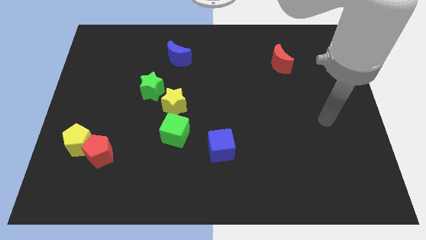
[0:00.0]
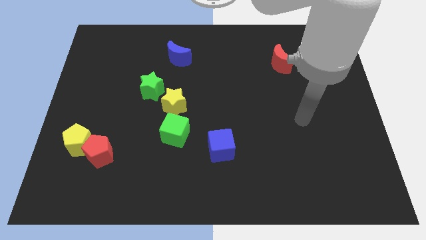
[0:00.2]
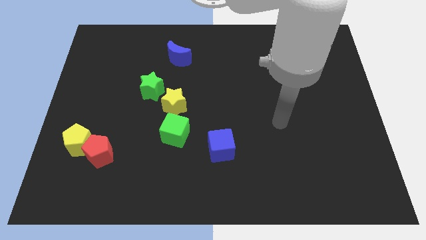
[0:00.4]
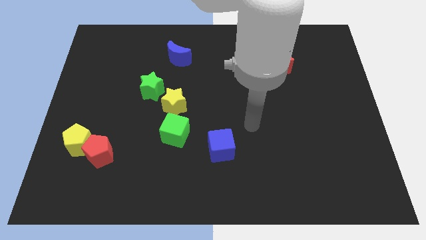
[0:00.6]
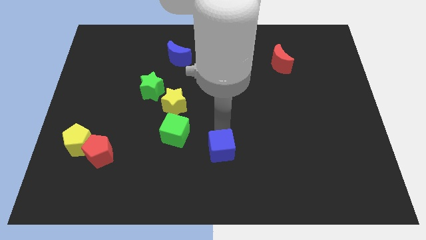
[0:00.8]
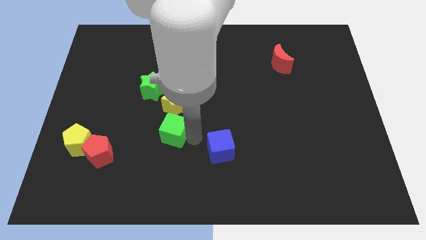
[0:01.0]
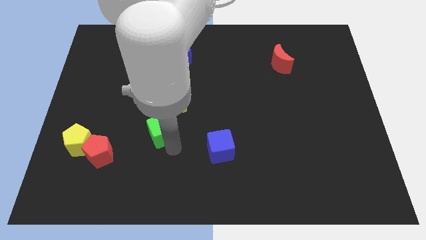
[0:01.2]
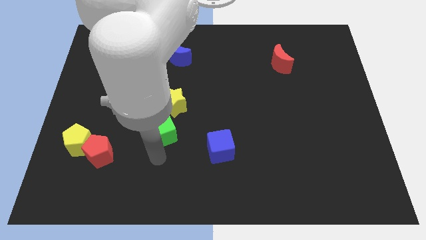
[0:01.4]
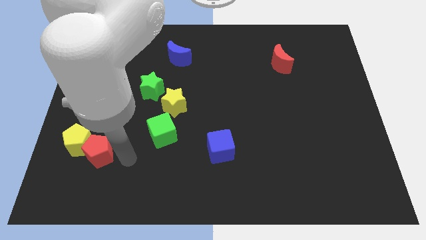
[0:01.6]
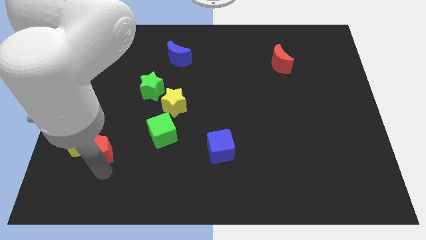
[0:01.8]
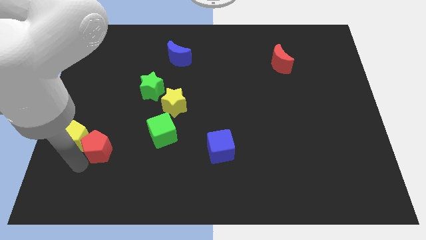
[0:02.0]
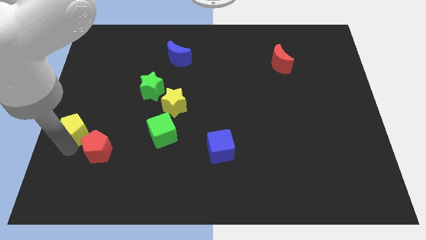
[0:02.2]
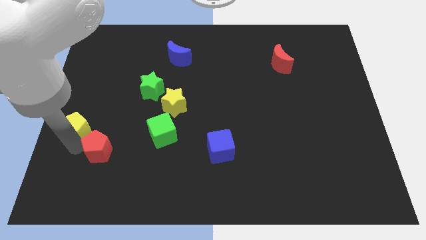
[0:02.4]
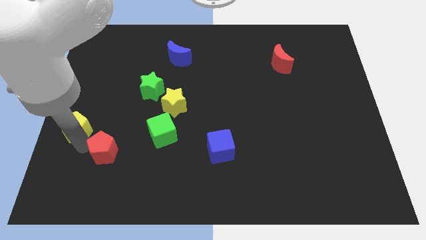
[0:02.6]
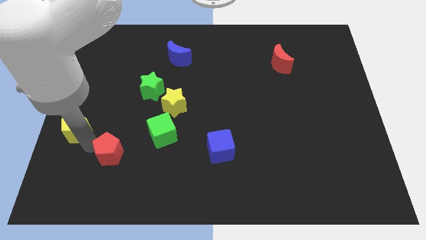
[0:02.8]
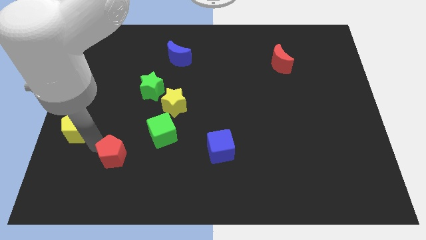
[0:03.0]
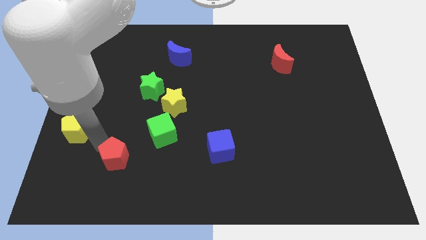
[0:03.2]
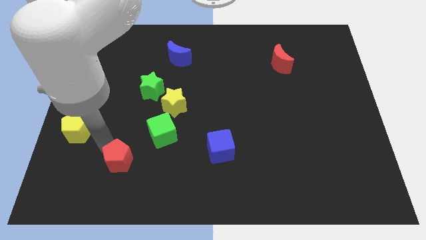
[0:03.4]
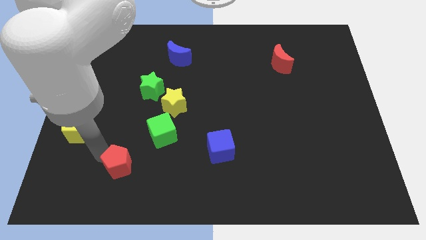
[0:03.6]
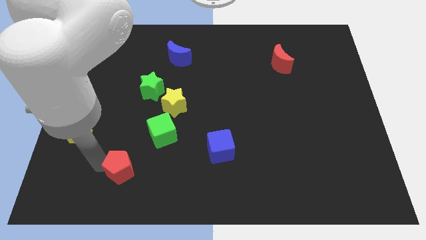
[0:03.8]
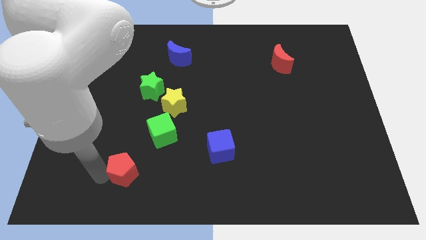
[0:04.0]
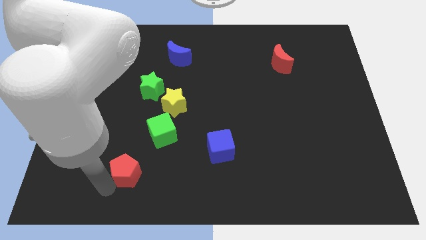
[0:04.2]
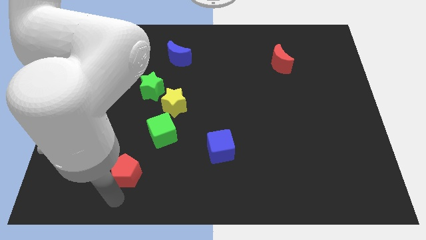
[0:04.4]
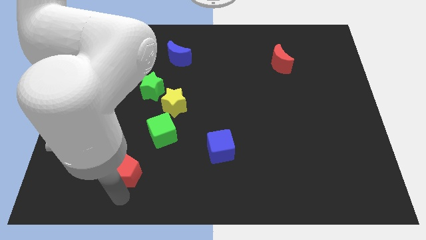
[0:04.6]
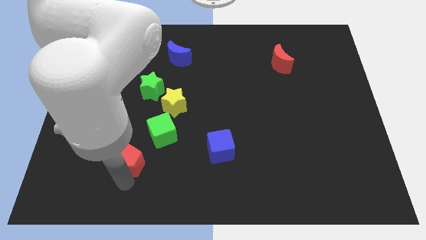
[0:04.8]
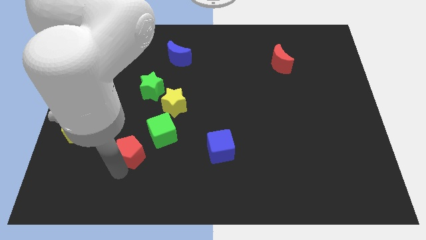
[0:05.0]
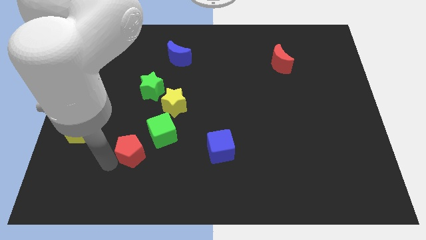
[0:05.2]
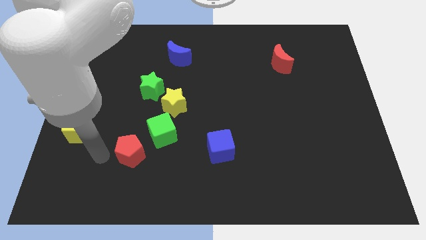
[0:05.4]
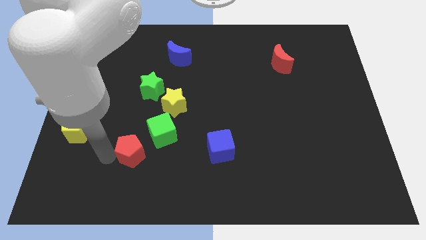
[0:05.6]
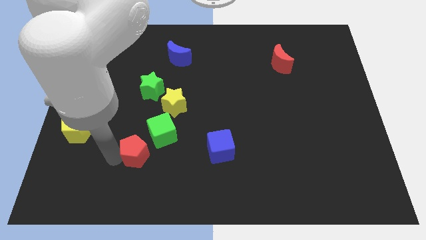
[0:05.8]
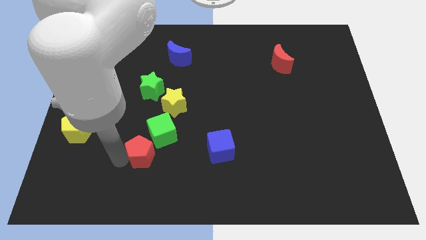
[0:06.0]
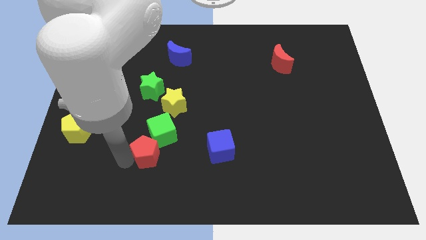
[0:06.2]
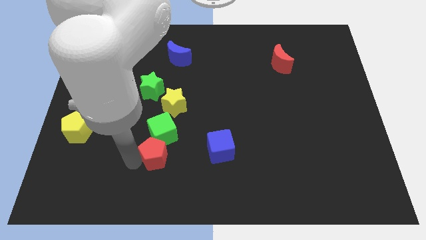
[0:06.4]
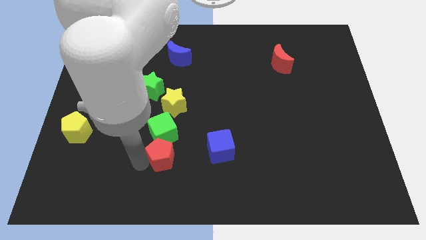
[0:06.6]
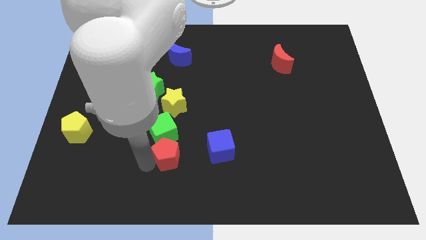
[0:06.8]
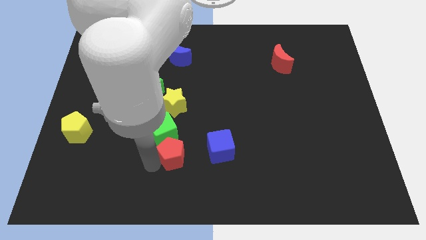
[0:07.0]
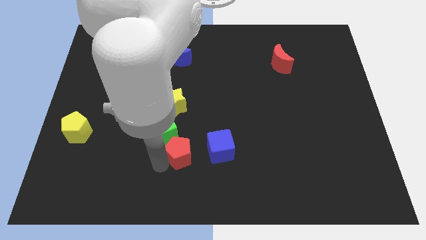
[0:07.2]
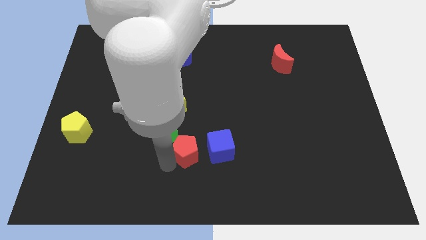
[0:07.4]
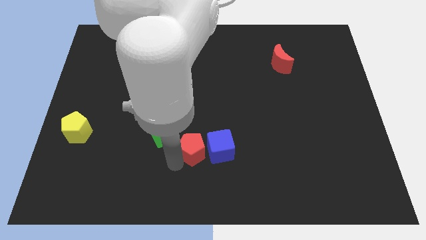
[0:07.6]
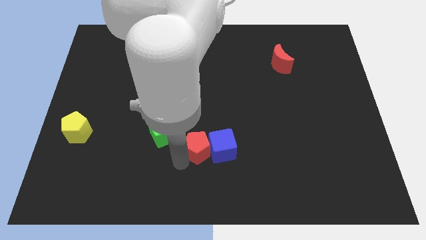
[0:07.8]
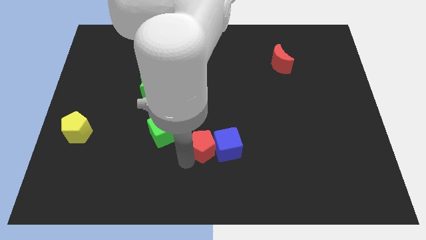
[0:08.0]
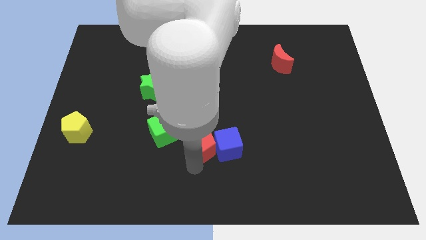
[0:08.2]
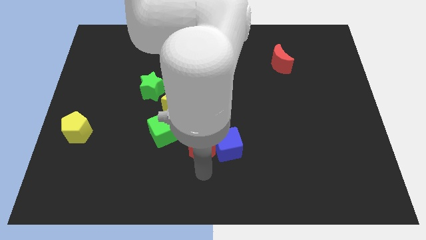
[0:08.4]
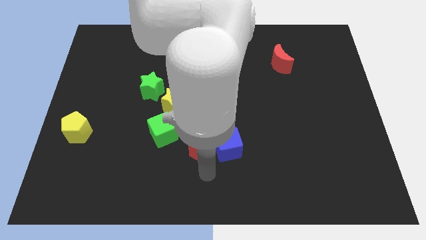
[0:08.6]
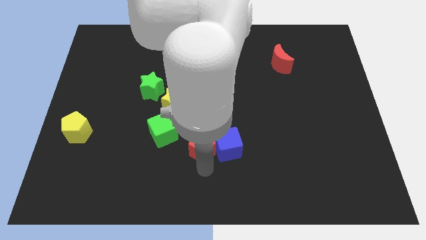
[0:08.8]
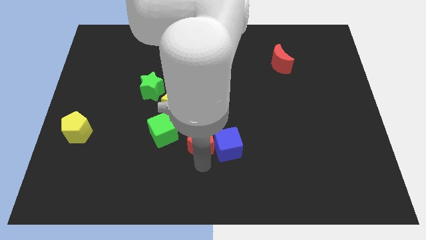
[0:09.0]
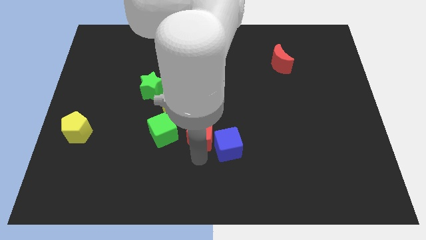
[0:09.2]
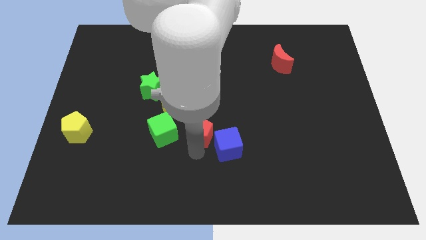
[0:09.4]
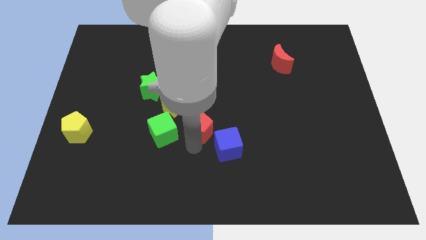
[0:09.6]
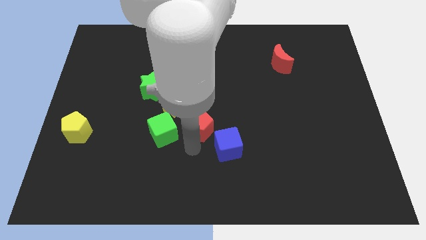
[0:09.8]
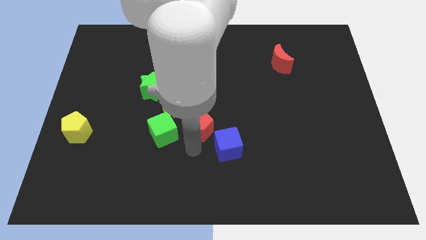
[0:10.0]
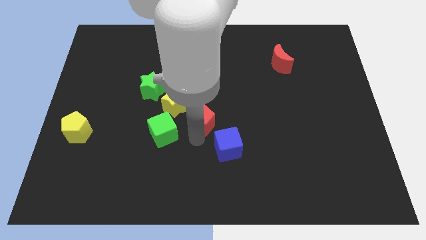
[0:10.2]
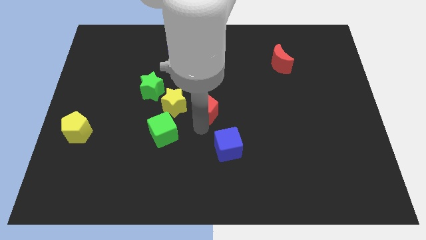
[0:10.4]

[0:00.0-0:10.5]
move the red pentagon up and then right

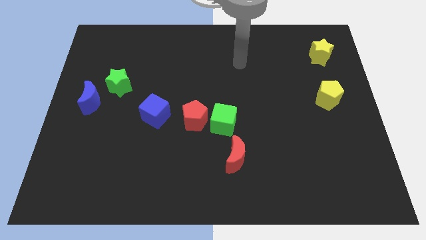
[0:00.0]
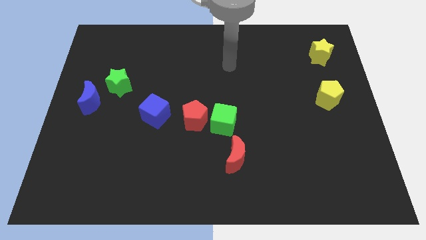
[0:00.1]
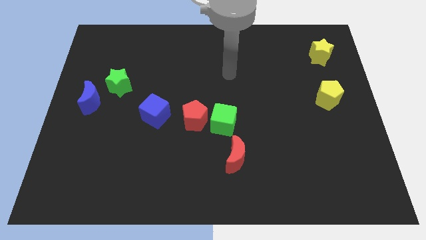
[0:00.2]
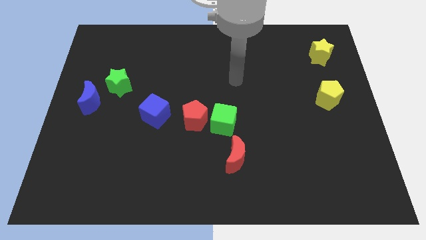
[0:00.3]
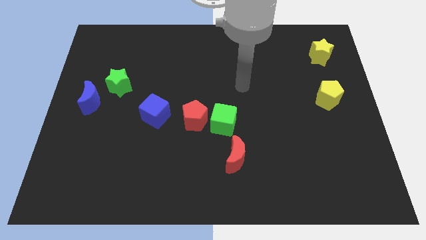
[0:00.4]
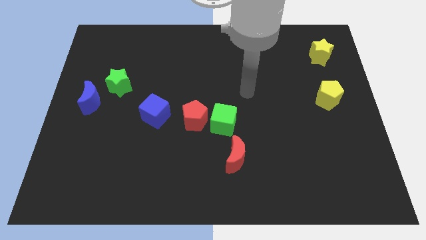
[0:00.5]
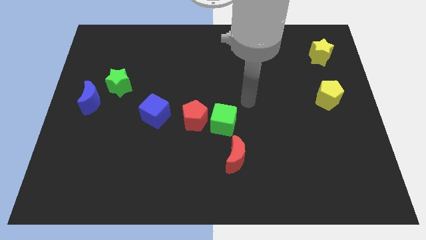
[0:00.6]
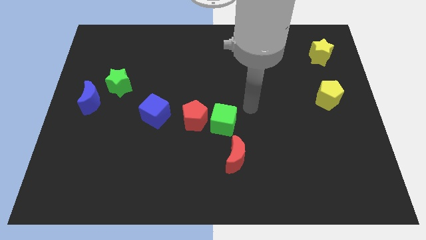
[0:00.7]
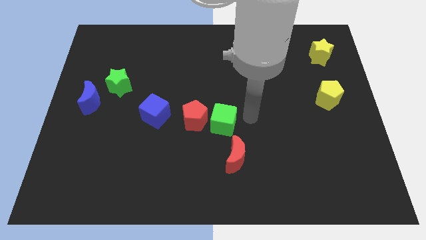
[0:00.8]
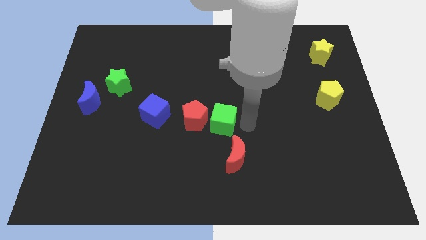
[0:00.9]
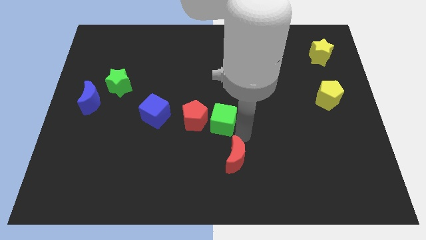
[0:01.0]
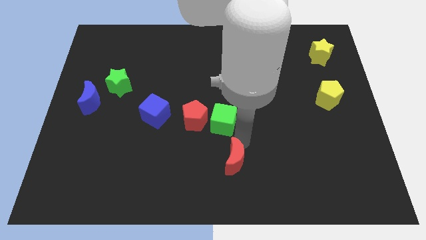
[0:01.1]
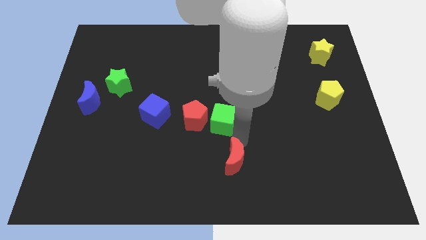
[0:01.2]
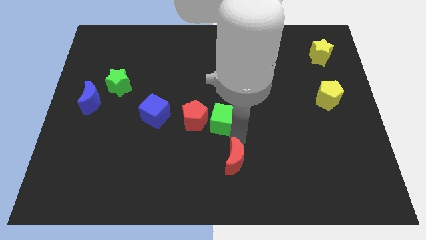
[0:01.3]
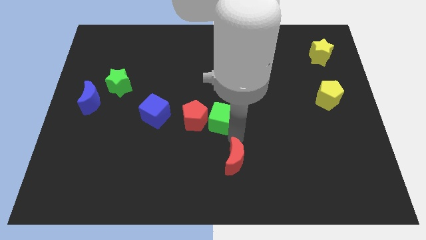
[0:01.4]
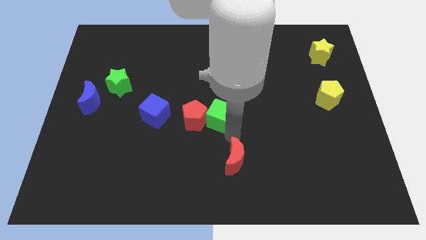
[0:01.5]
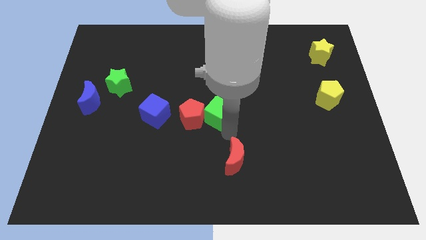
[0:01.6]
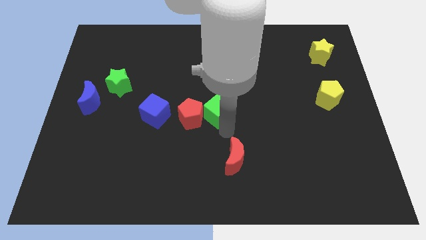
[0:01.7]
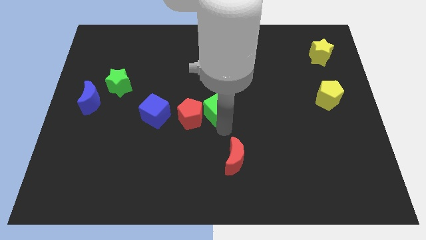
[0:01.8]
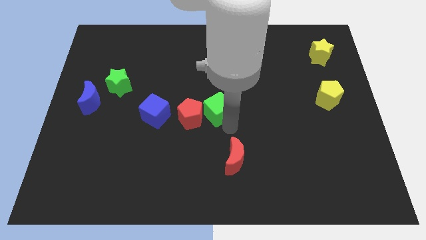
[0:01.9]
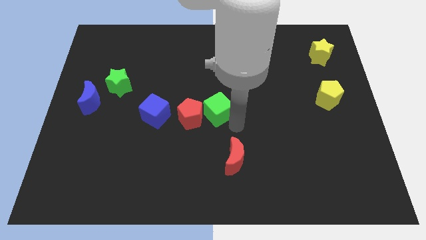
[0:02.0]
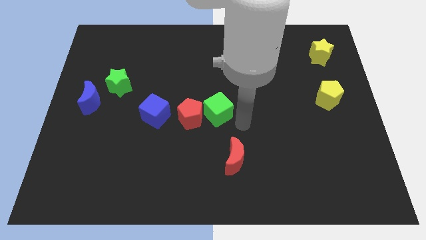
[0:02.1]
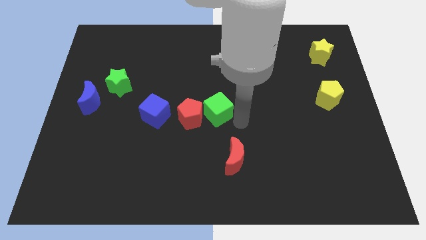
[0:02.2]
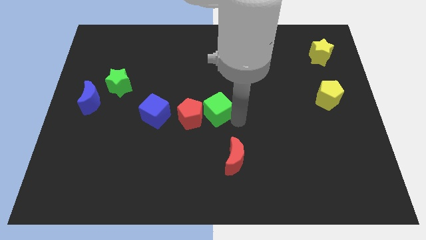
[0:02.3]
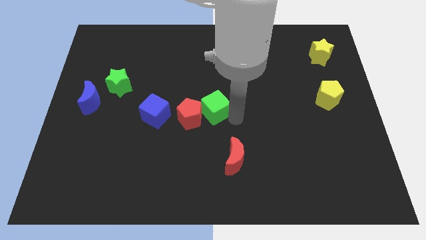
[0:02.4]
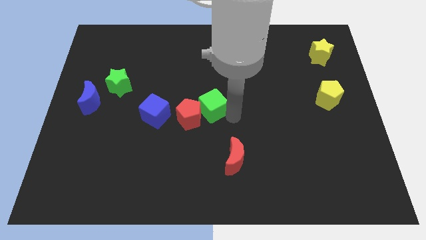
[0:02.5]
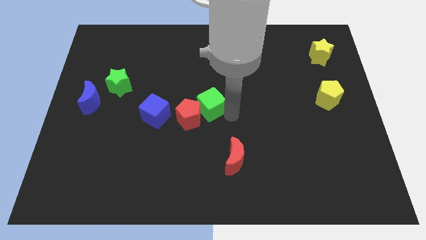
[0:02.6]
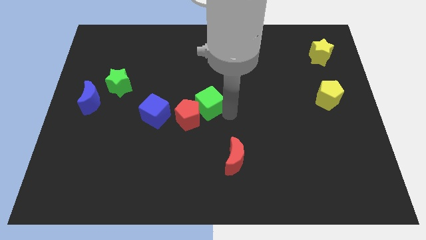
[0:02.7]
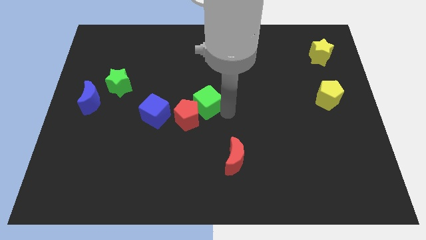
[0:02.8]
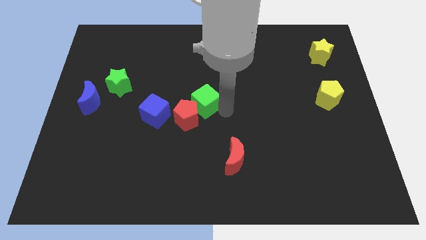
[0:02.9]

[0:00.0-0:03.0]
move the green cube a little bit diagonally up and to the left
